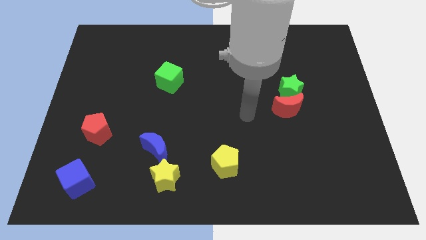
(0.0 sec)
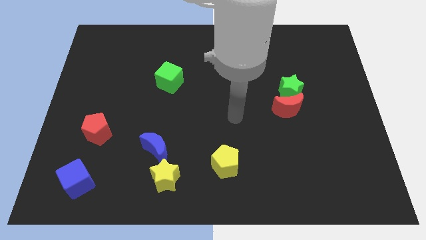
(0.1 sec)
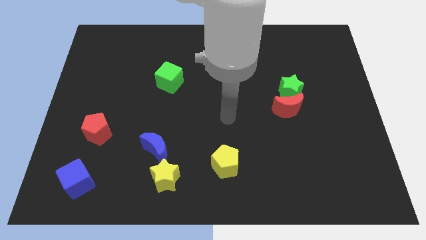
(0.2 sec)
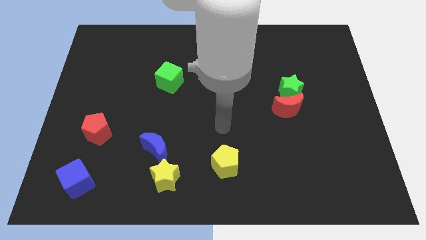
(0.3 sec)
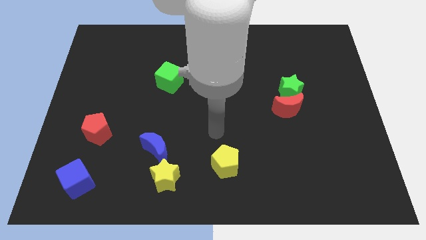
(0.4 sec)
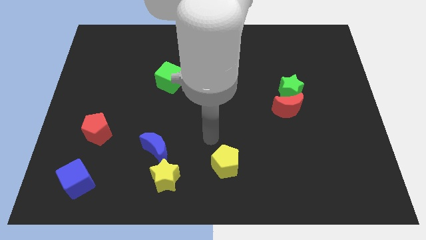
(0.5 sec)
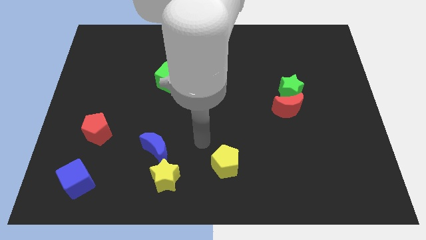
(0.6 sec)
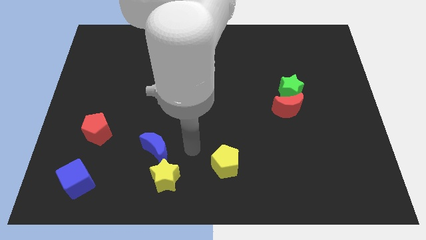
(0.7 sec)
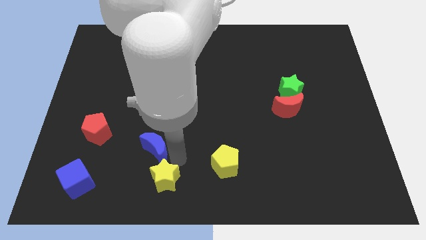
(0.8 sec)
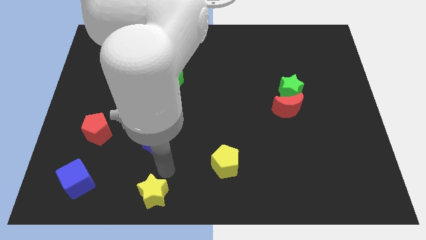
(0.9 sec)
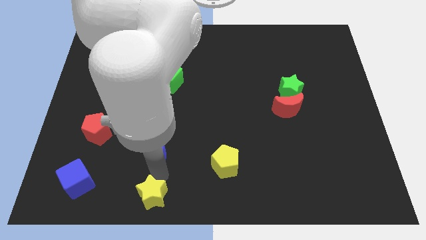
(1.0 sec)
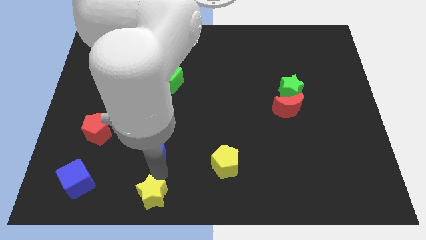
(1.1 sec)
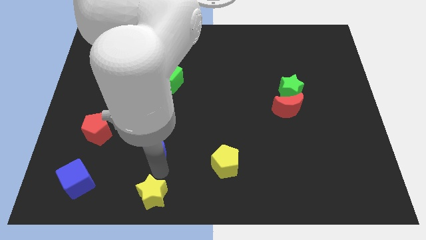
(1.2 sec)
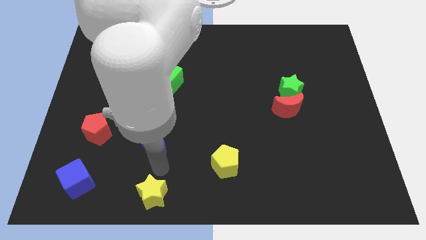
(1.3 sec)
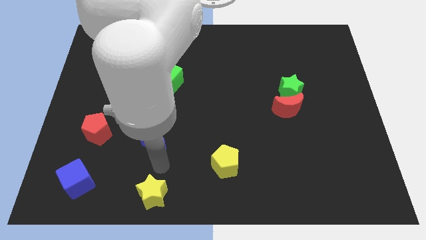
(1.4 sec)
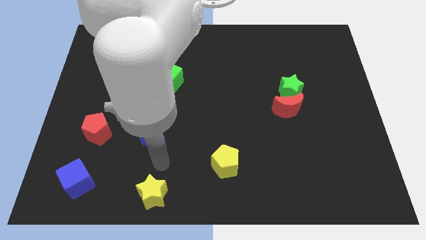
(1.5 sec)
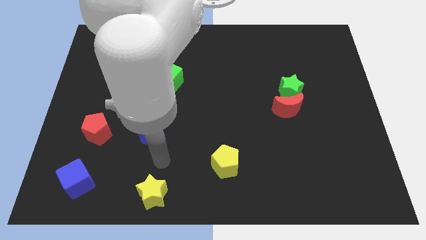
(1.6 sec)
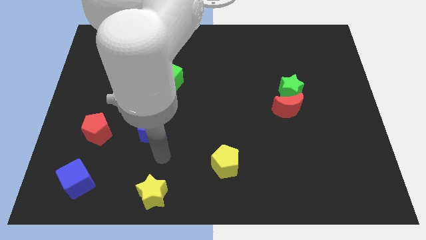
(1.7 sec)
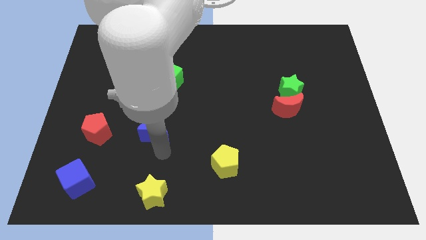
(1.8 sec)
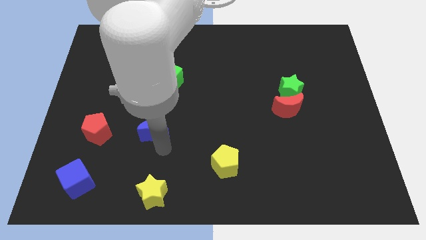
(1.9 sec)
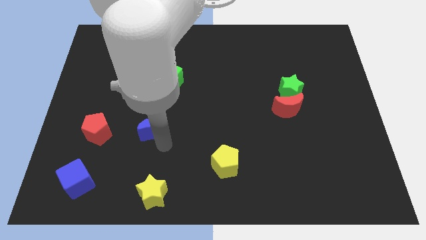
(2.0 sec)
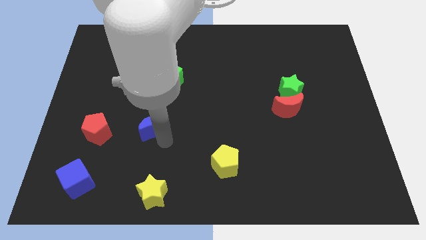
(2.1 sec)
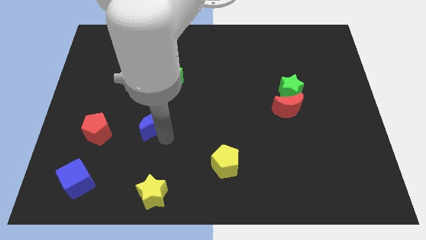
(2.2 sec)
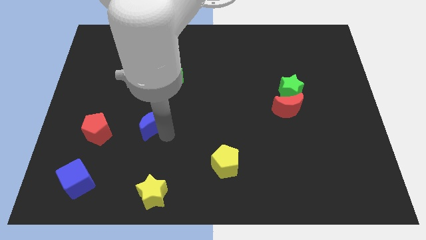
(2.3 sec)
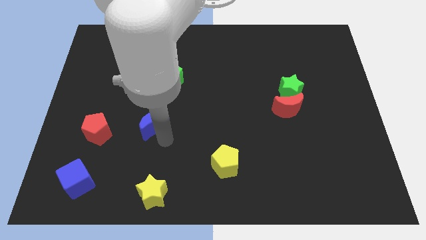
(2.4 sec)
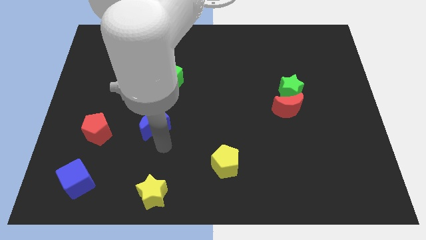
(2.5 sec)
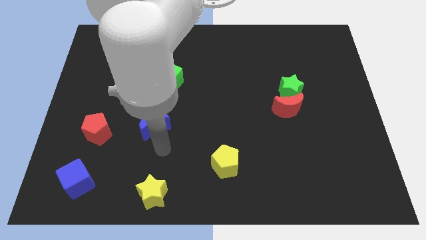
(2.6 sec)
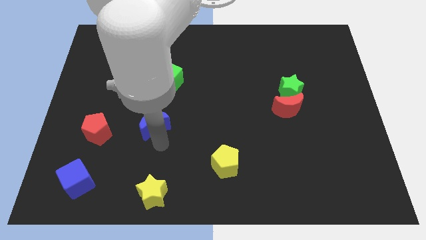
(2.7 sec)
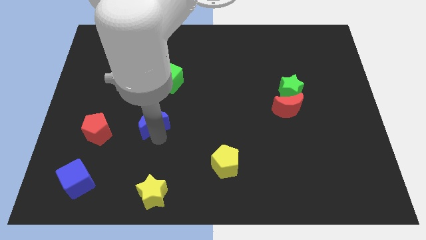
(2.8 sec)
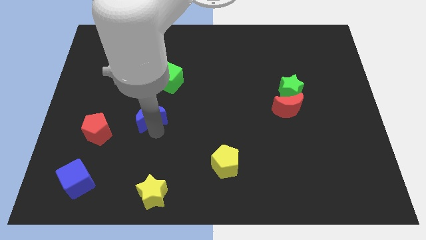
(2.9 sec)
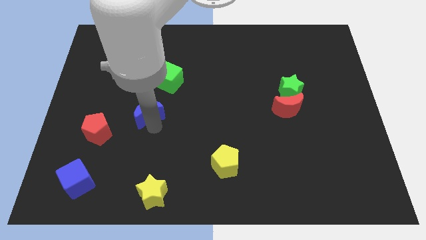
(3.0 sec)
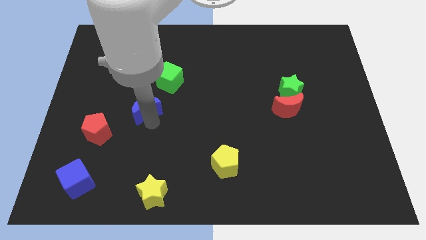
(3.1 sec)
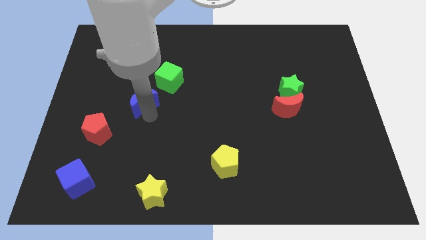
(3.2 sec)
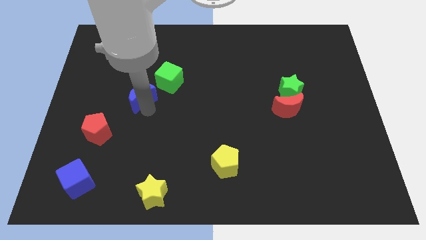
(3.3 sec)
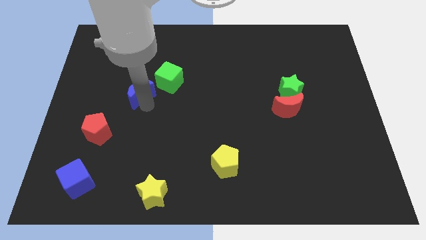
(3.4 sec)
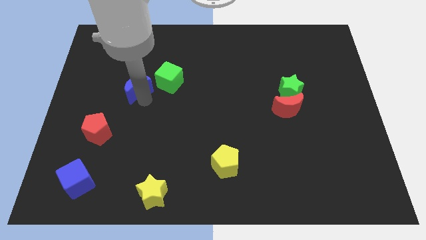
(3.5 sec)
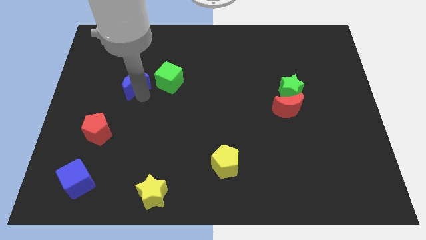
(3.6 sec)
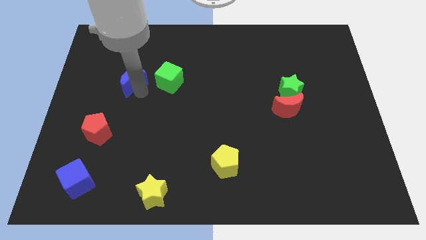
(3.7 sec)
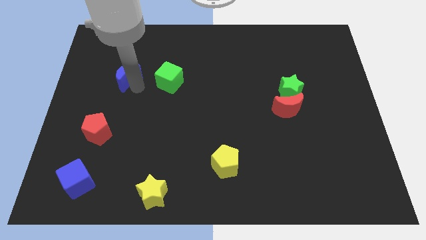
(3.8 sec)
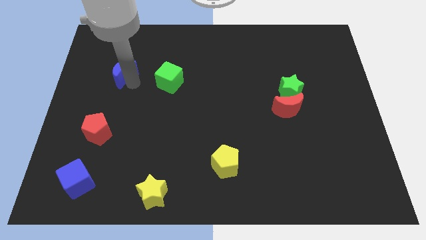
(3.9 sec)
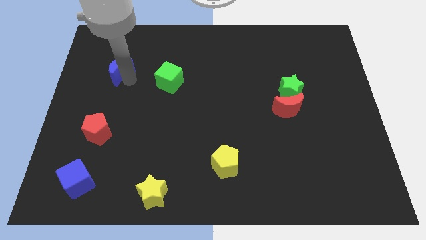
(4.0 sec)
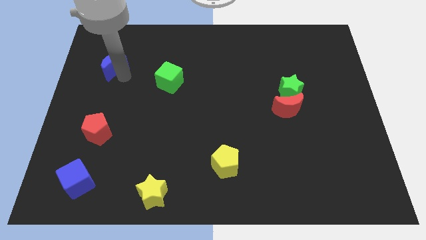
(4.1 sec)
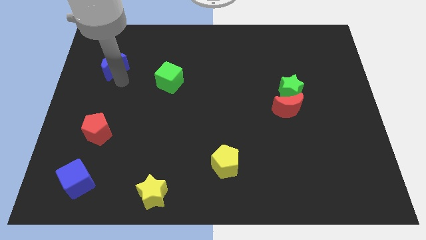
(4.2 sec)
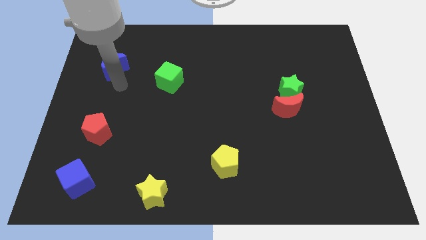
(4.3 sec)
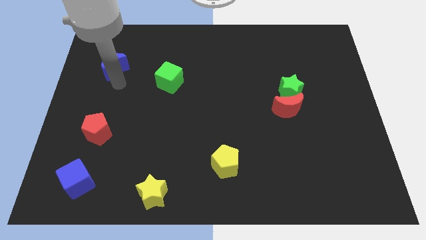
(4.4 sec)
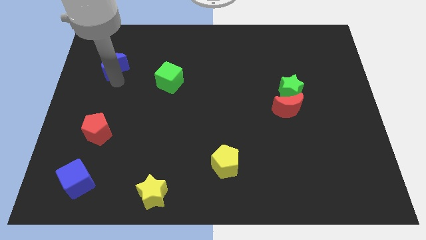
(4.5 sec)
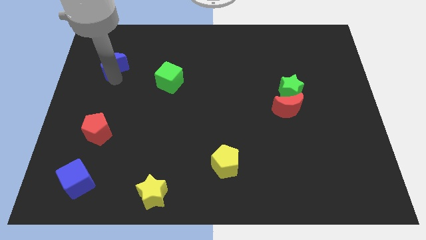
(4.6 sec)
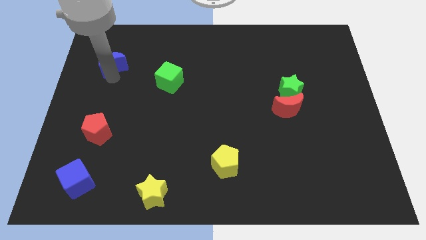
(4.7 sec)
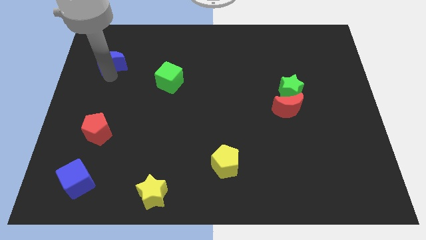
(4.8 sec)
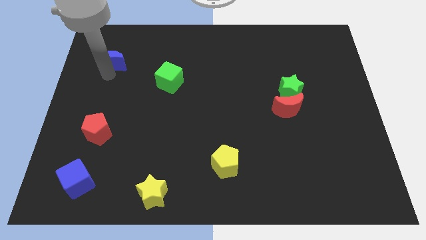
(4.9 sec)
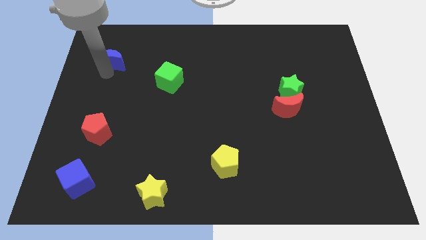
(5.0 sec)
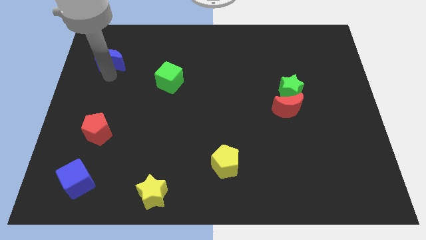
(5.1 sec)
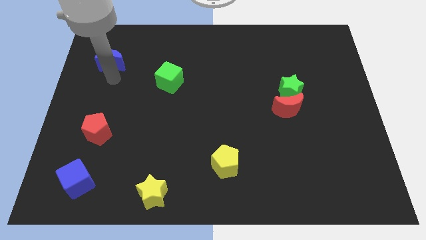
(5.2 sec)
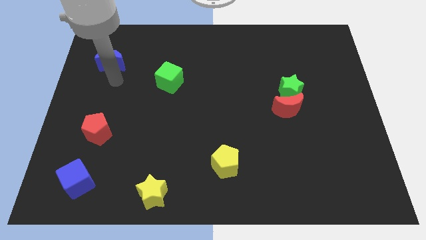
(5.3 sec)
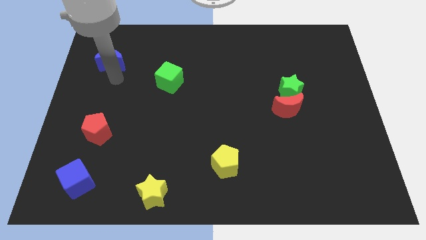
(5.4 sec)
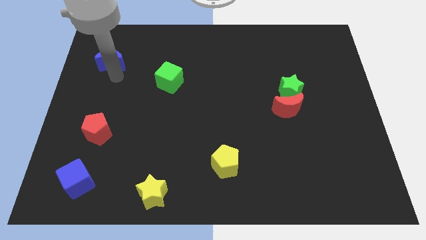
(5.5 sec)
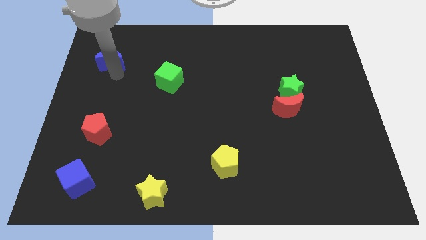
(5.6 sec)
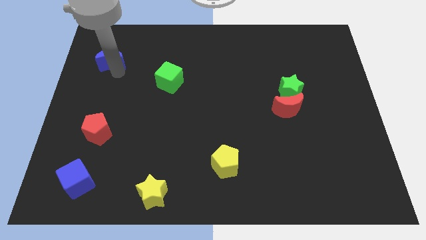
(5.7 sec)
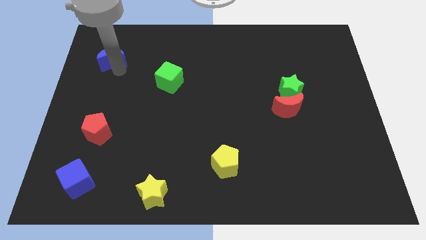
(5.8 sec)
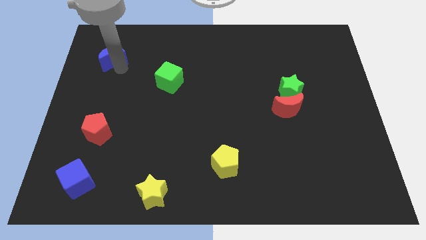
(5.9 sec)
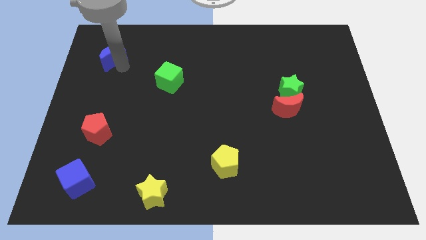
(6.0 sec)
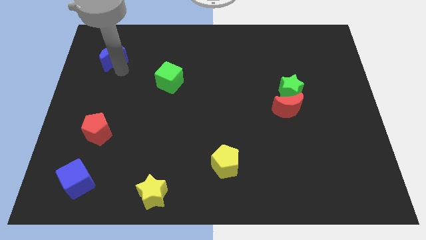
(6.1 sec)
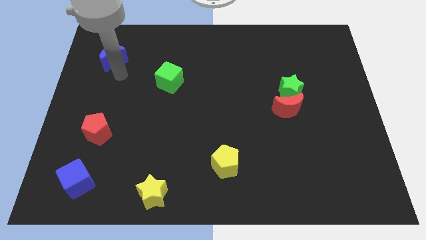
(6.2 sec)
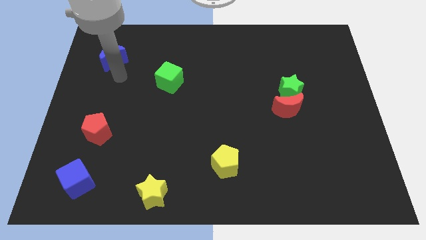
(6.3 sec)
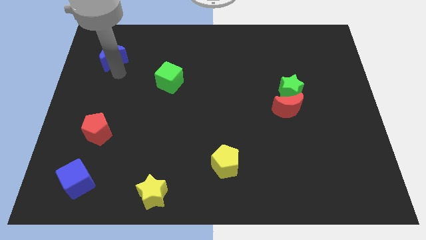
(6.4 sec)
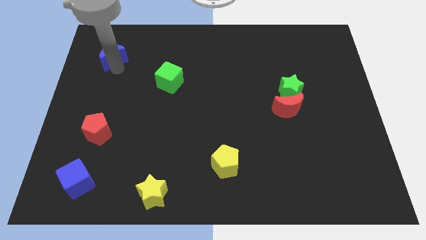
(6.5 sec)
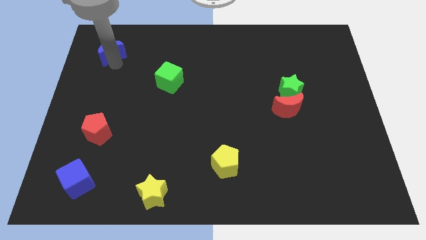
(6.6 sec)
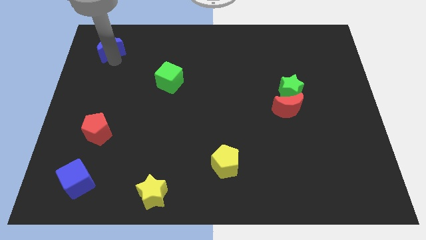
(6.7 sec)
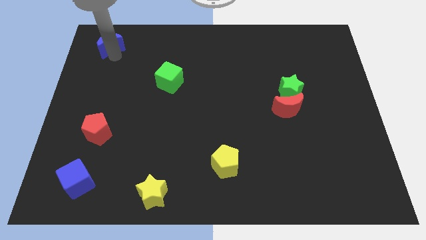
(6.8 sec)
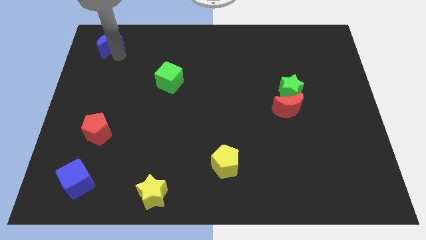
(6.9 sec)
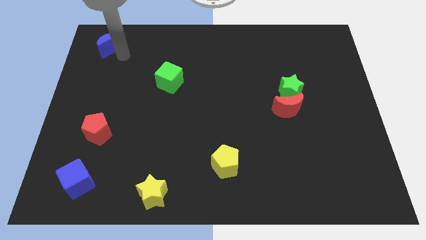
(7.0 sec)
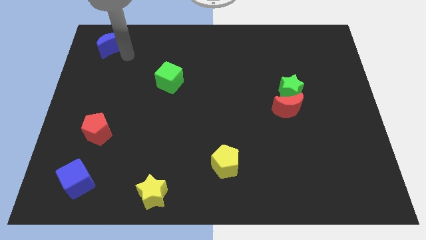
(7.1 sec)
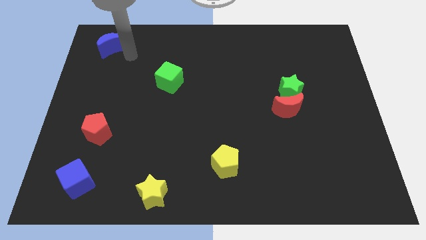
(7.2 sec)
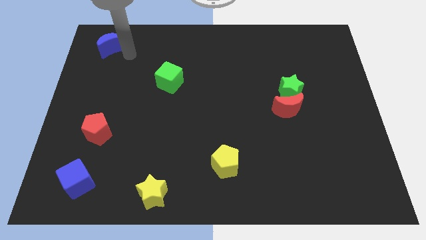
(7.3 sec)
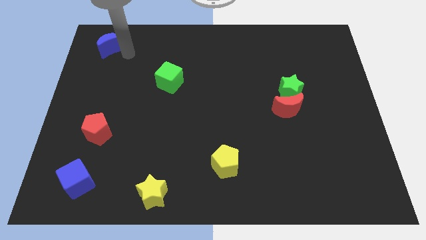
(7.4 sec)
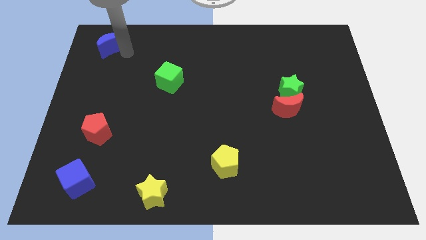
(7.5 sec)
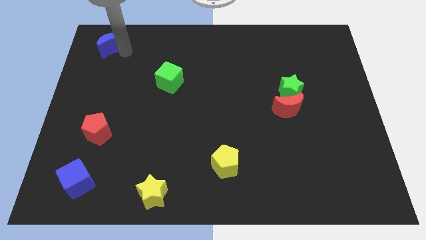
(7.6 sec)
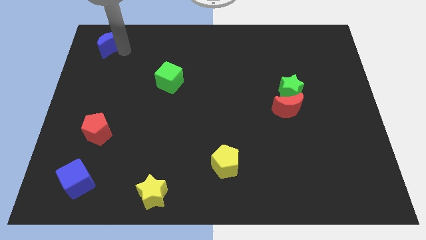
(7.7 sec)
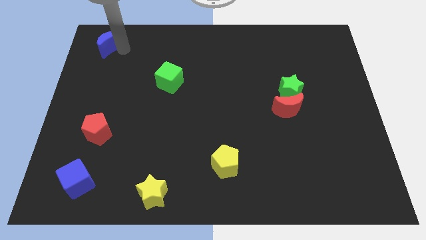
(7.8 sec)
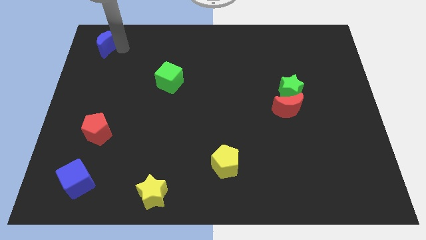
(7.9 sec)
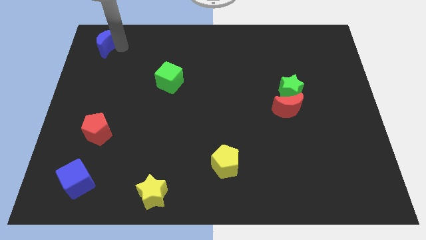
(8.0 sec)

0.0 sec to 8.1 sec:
slide the blue moon to the top left corner
